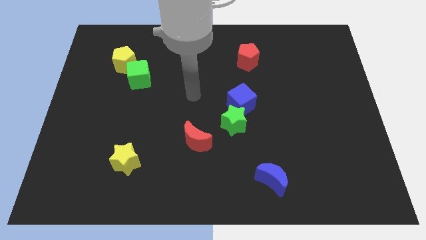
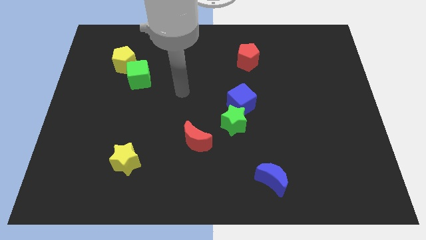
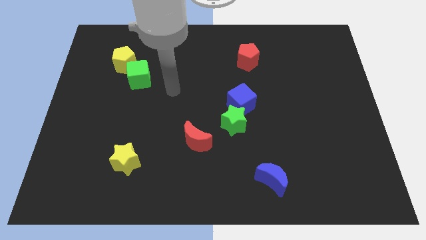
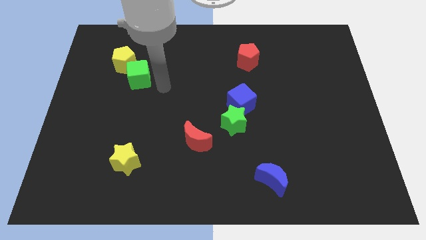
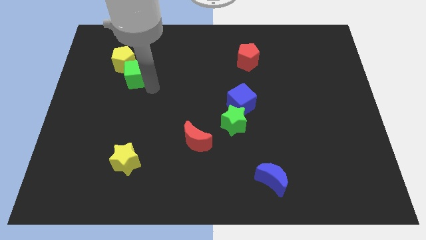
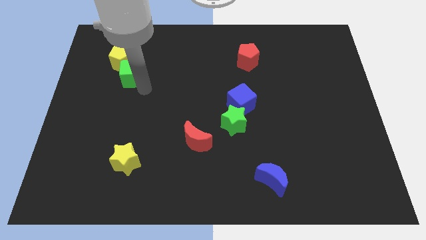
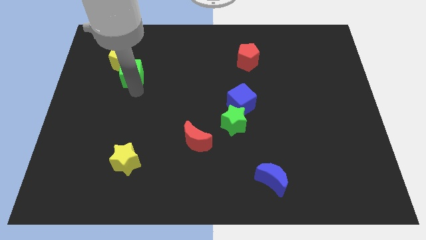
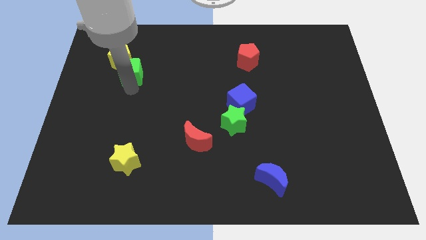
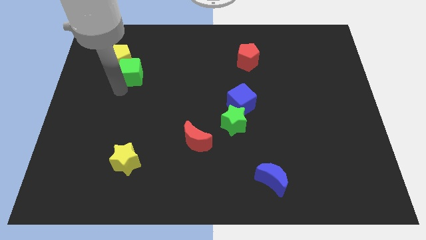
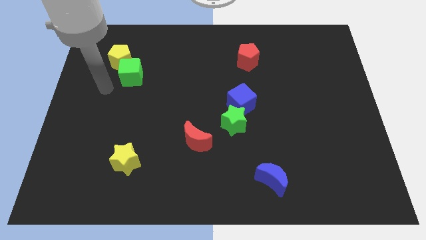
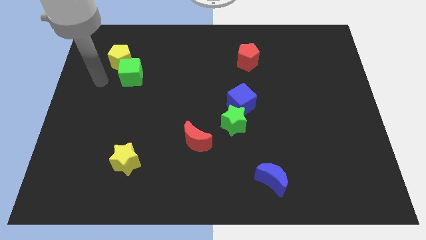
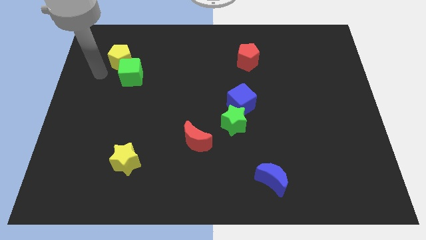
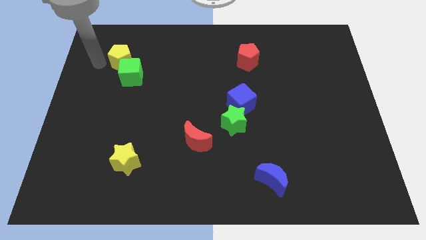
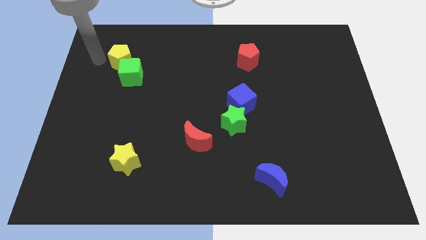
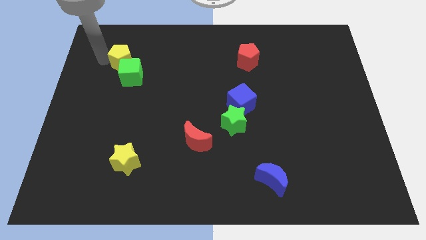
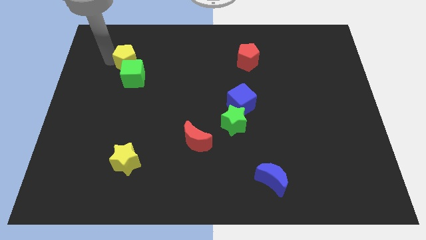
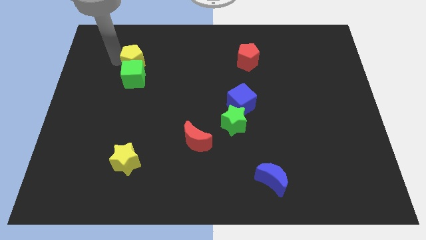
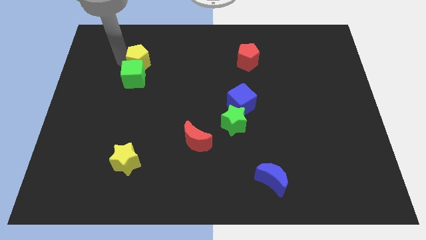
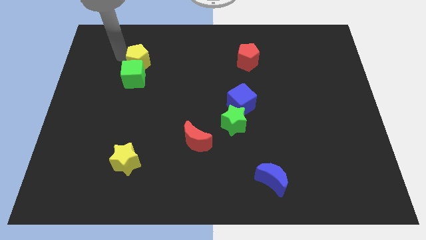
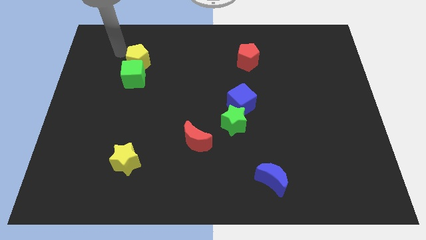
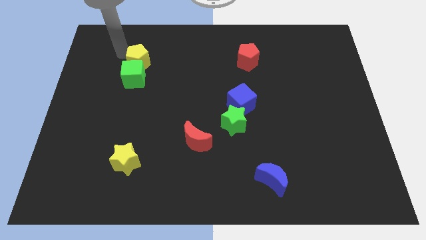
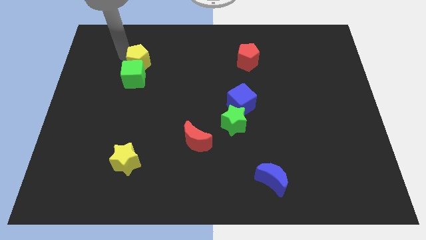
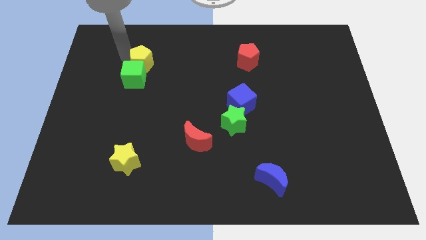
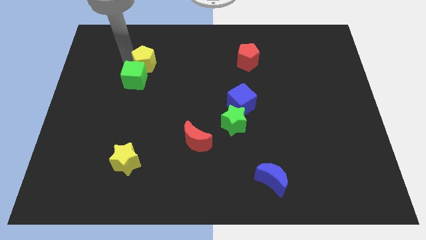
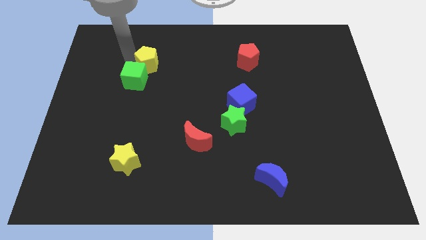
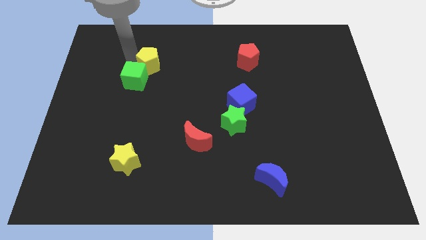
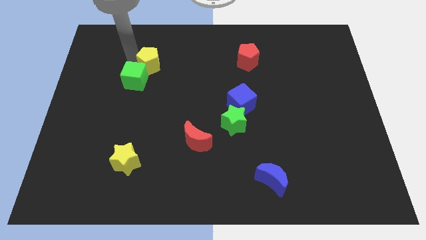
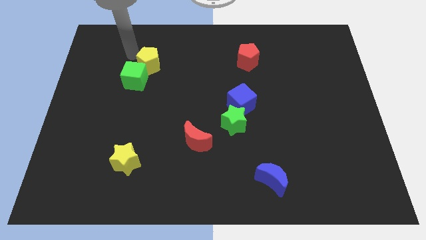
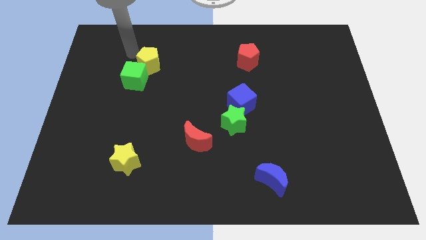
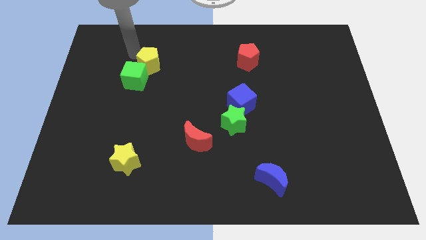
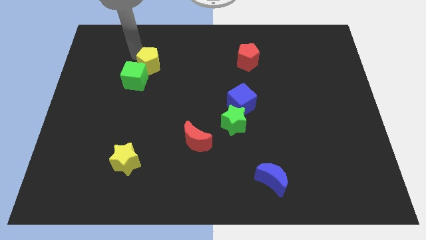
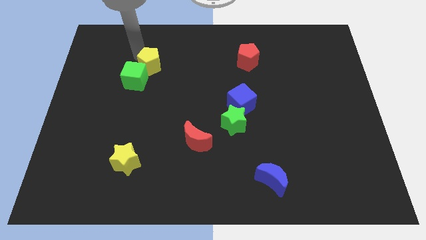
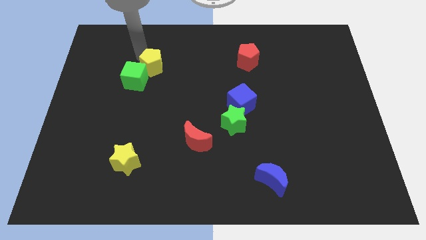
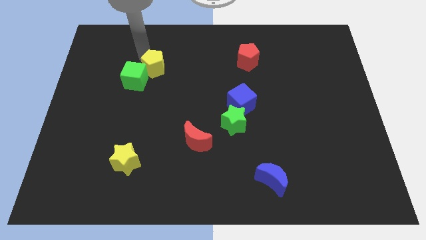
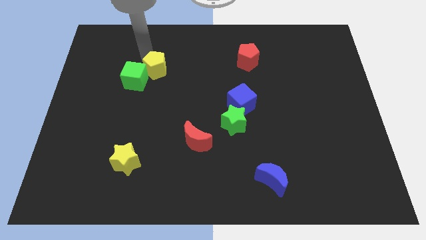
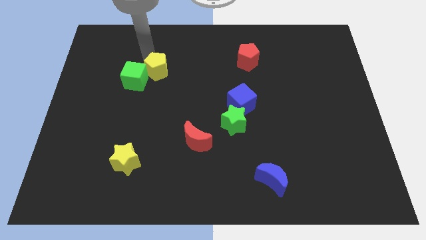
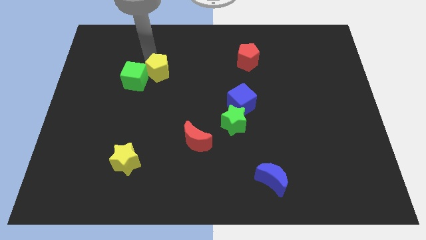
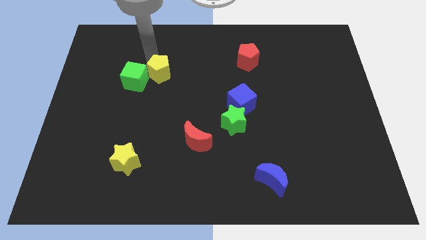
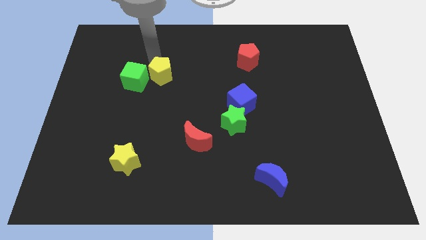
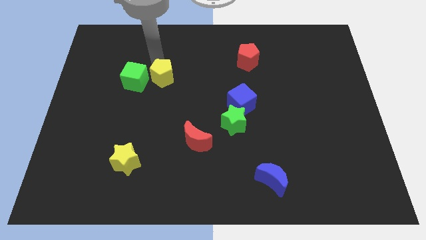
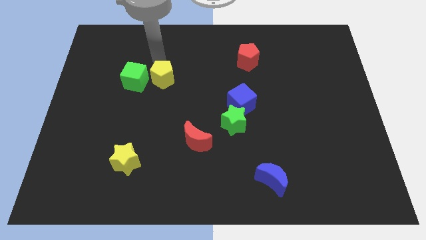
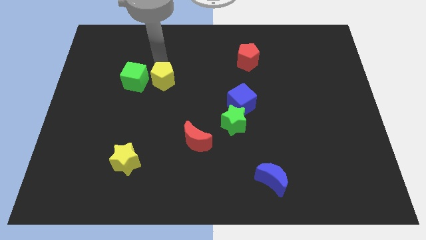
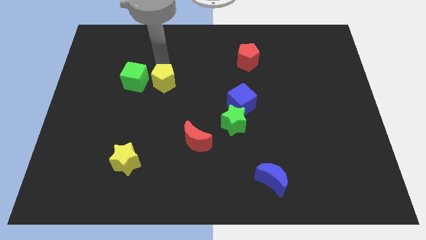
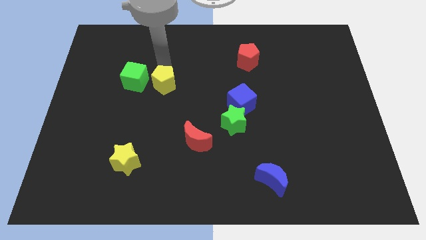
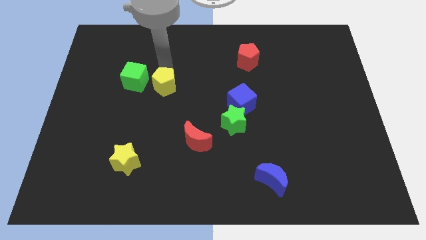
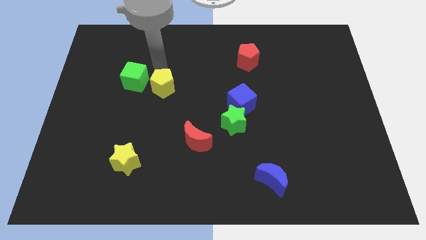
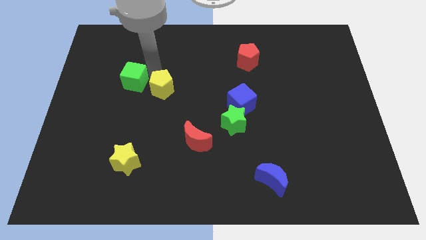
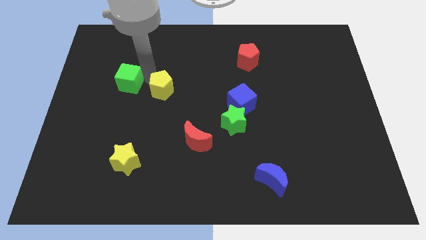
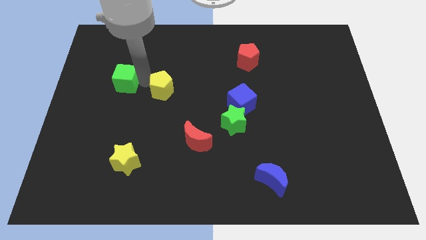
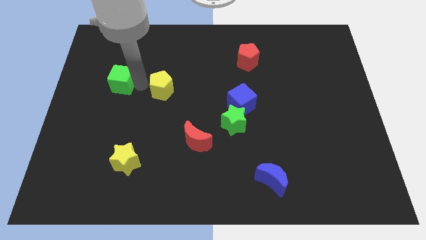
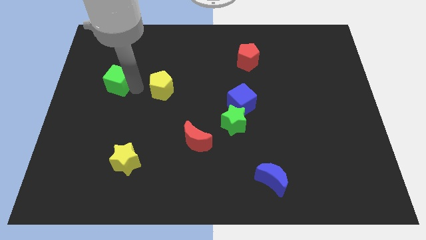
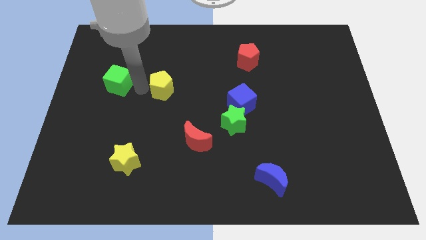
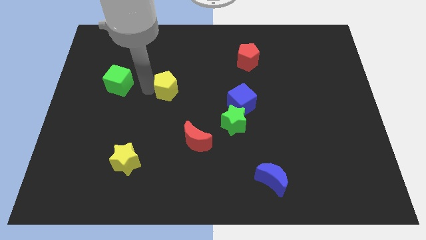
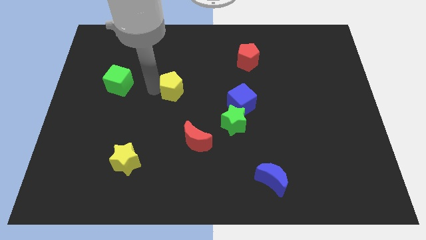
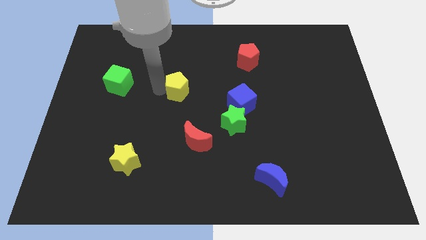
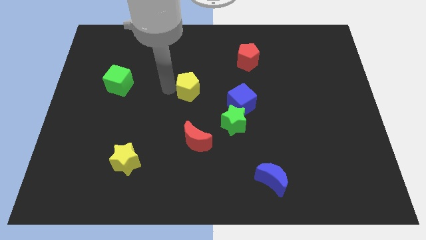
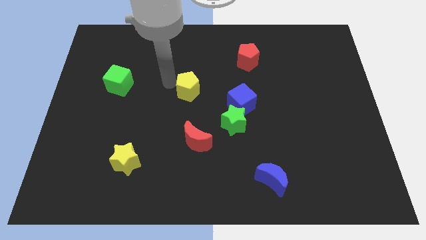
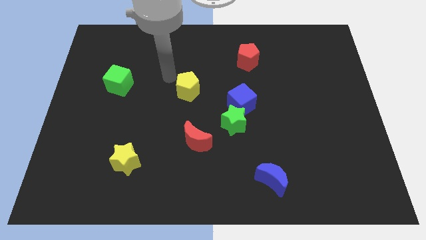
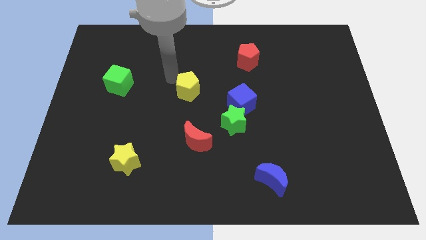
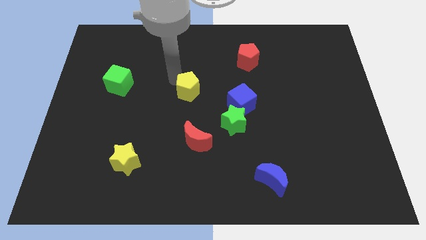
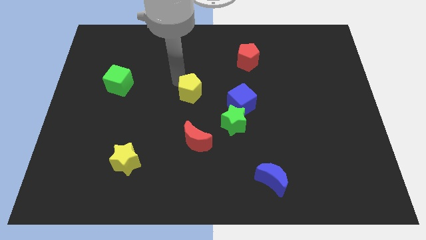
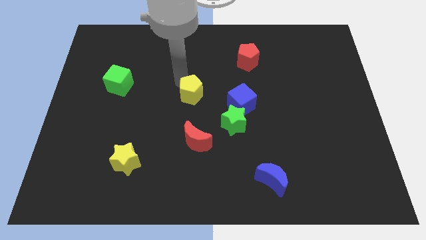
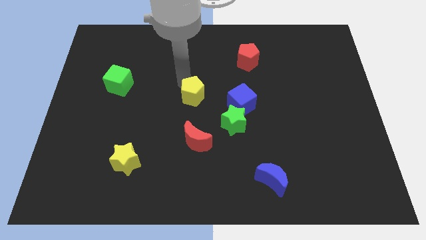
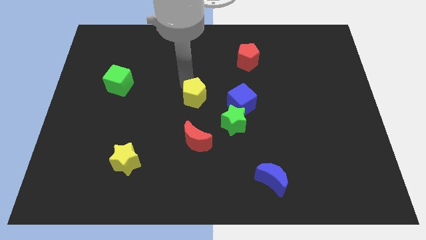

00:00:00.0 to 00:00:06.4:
push the yellow pentagon to the top left side of the green star
